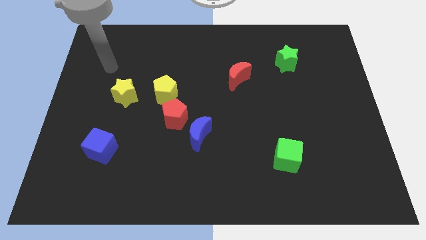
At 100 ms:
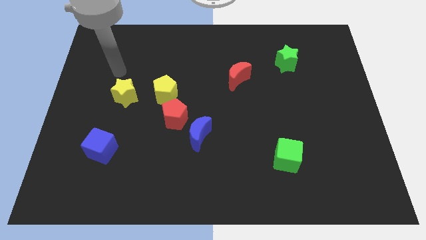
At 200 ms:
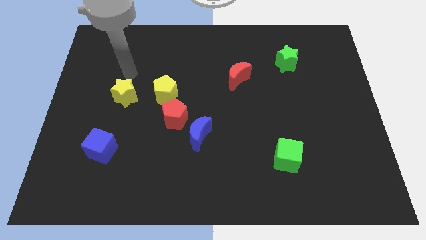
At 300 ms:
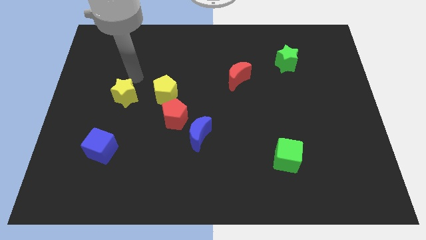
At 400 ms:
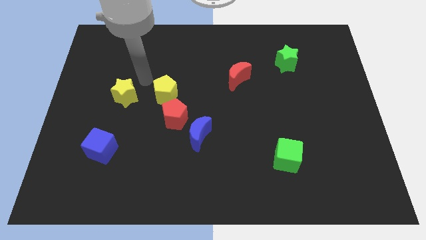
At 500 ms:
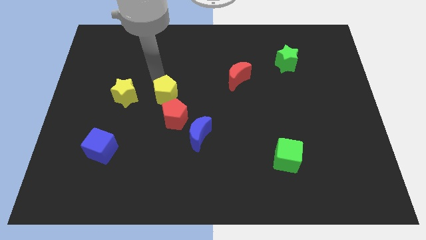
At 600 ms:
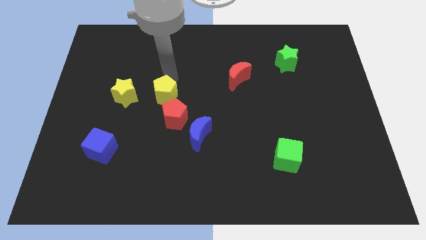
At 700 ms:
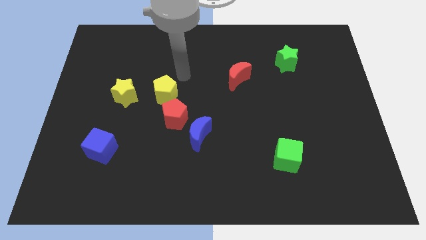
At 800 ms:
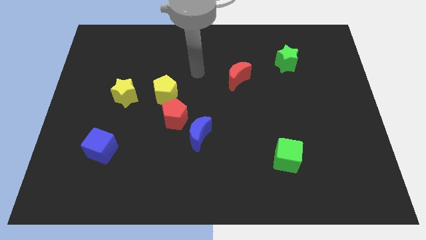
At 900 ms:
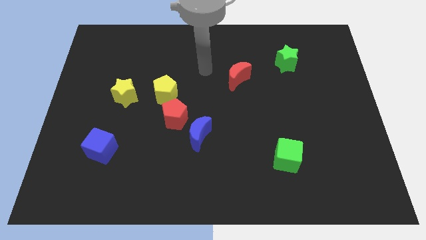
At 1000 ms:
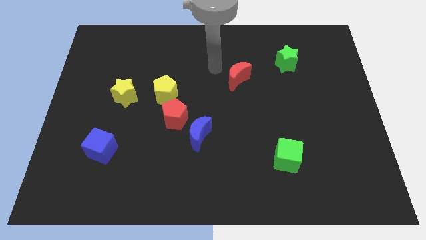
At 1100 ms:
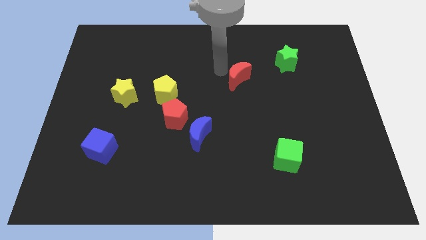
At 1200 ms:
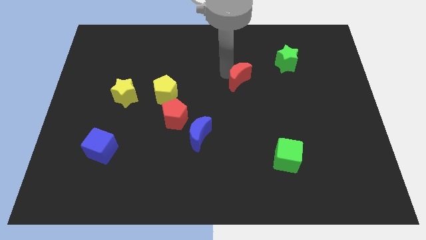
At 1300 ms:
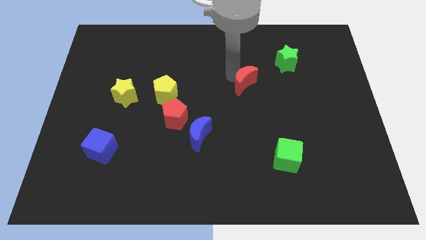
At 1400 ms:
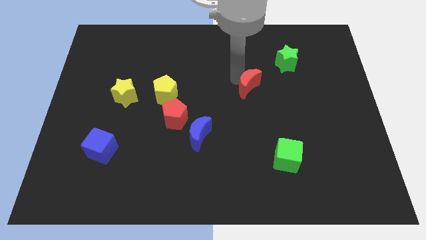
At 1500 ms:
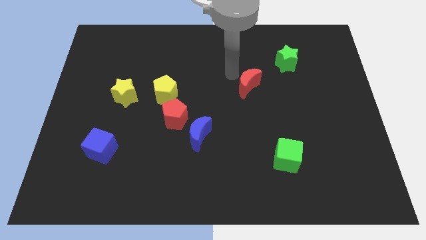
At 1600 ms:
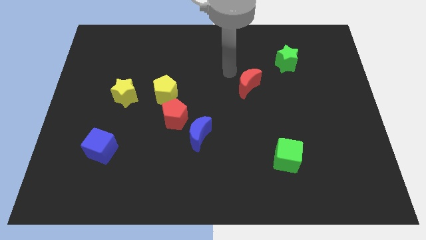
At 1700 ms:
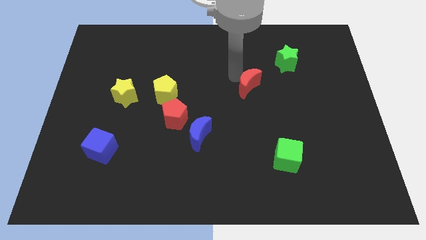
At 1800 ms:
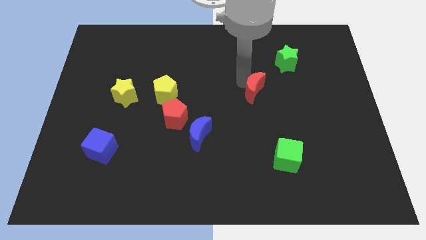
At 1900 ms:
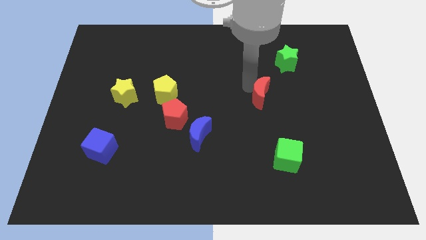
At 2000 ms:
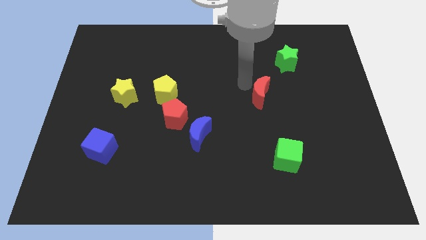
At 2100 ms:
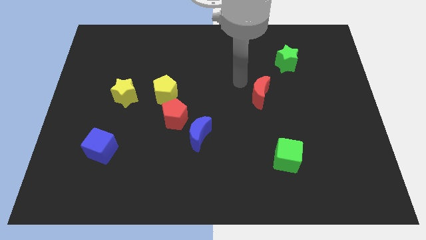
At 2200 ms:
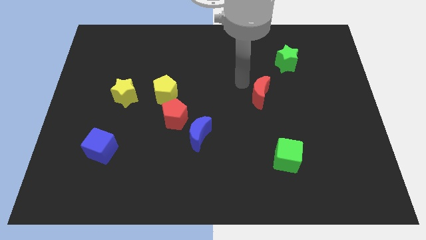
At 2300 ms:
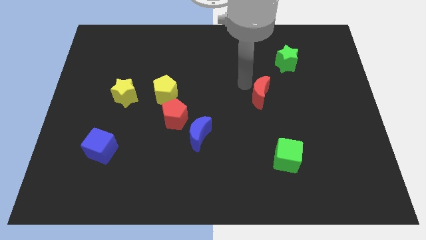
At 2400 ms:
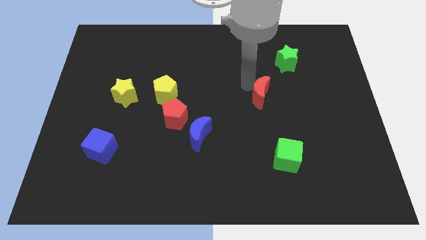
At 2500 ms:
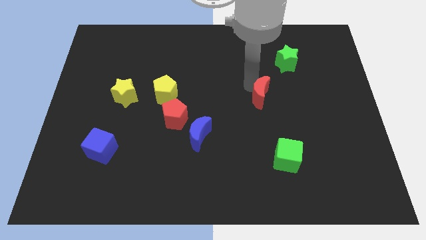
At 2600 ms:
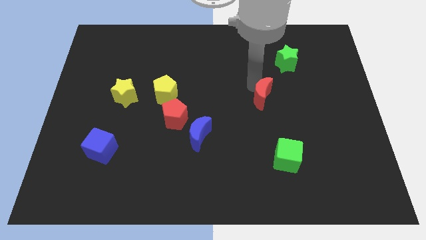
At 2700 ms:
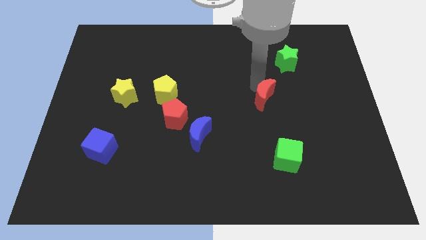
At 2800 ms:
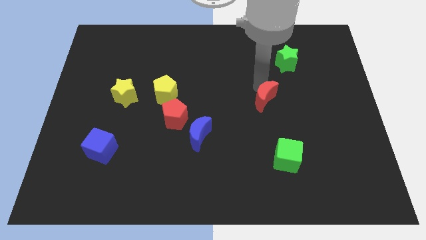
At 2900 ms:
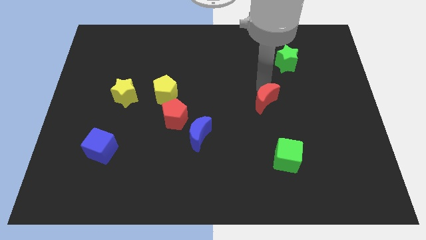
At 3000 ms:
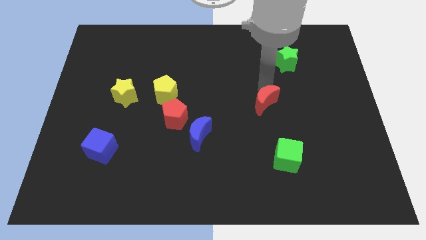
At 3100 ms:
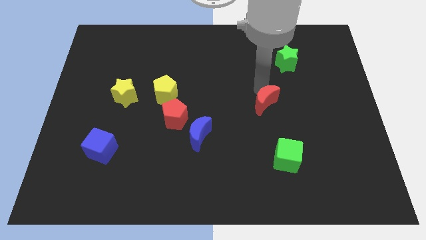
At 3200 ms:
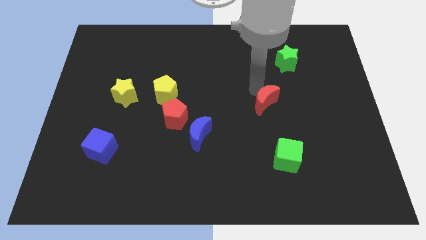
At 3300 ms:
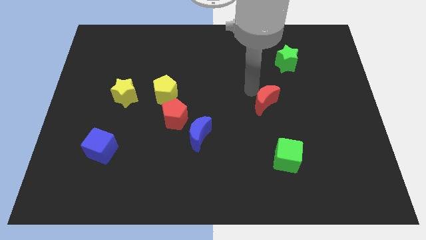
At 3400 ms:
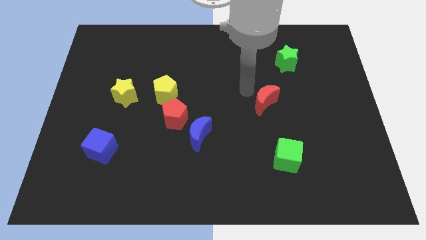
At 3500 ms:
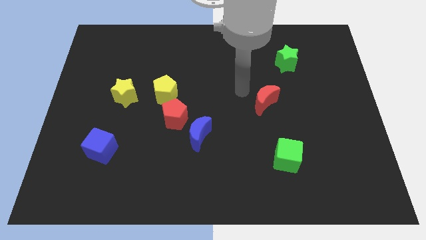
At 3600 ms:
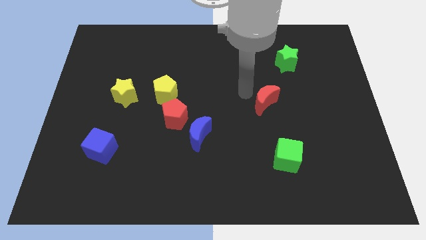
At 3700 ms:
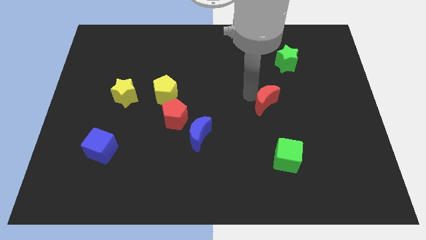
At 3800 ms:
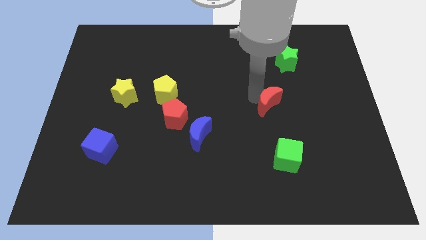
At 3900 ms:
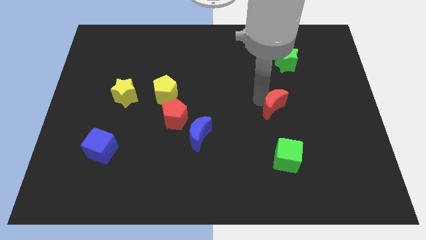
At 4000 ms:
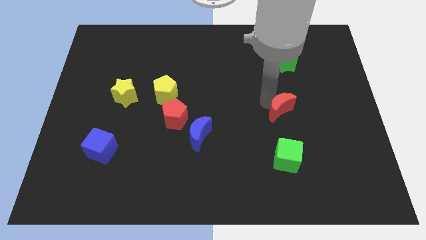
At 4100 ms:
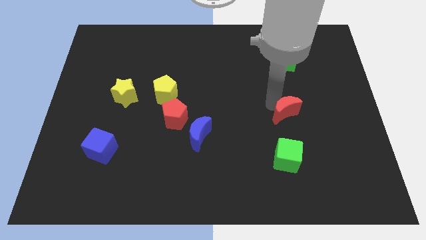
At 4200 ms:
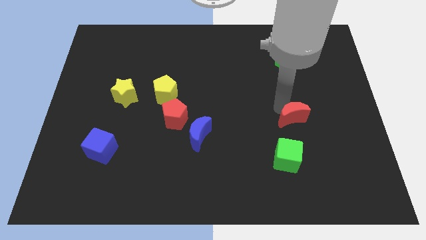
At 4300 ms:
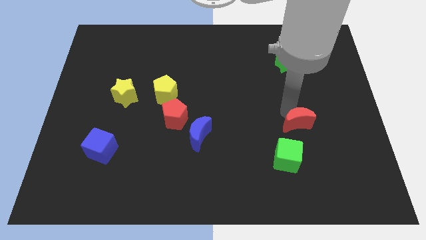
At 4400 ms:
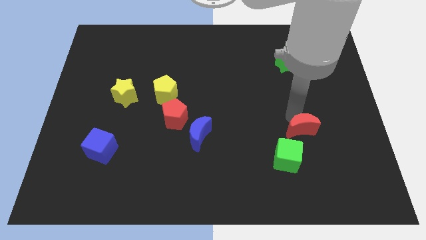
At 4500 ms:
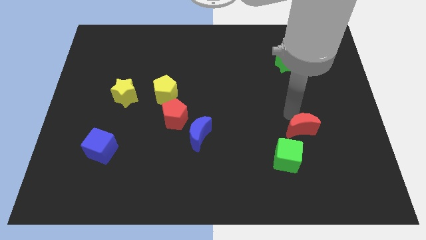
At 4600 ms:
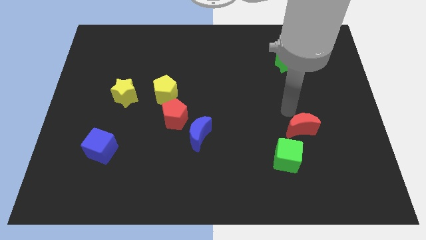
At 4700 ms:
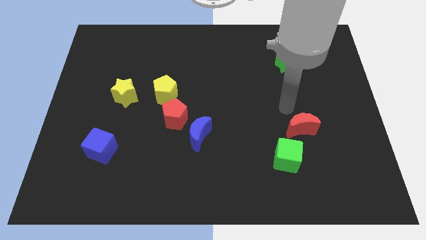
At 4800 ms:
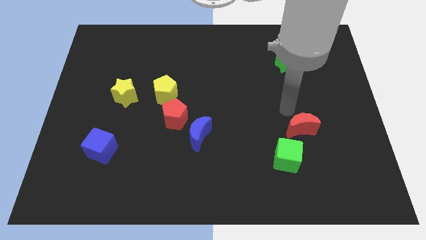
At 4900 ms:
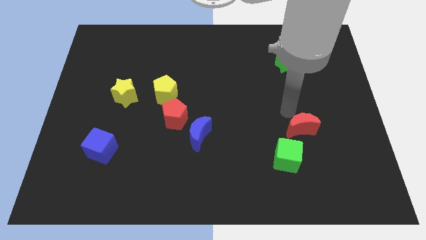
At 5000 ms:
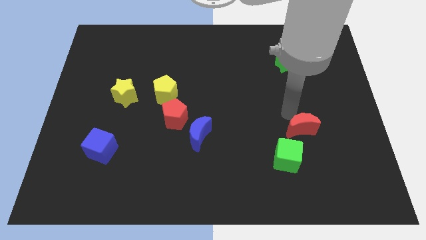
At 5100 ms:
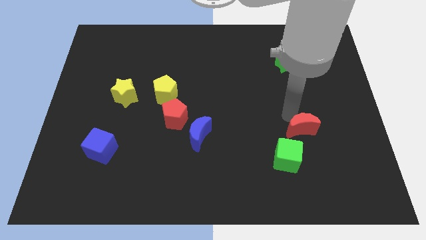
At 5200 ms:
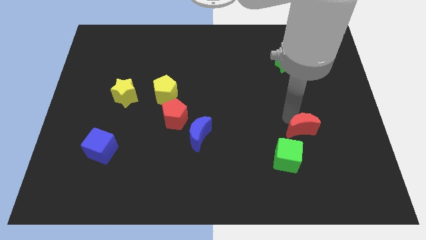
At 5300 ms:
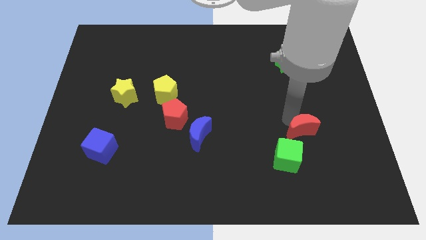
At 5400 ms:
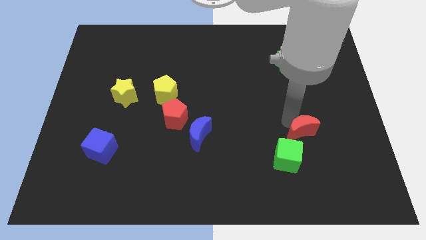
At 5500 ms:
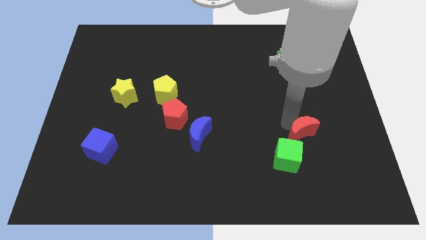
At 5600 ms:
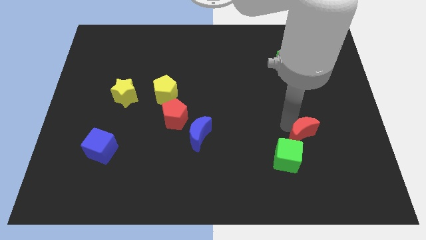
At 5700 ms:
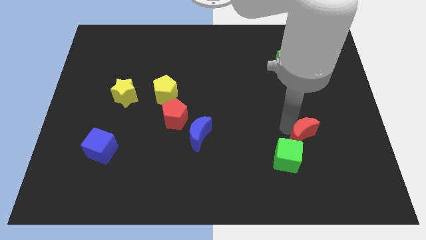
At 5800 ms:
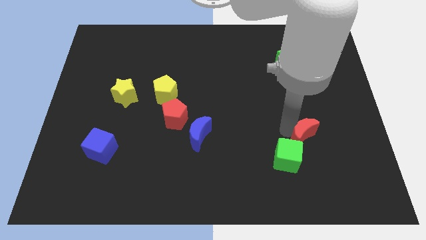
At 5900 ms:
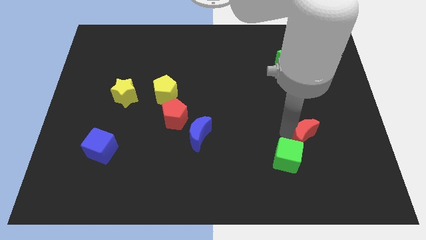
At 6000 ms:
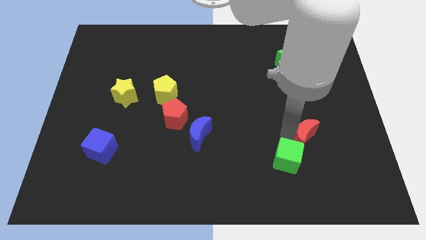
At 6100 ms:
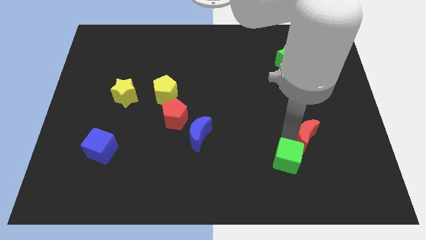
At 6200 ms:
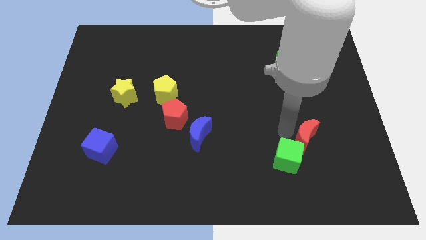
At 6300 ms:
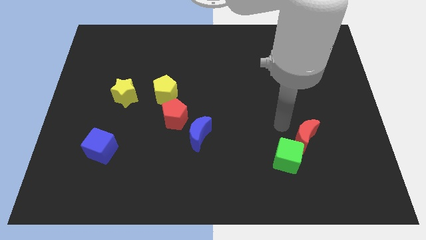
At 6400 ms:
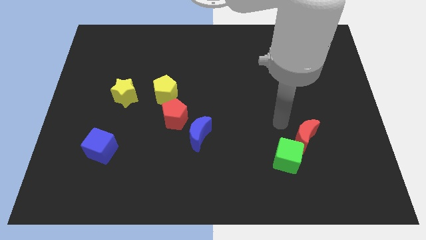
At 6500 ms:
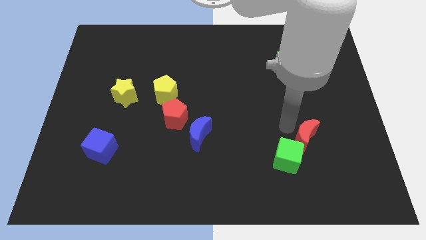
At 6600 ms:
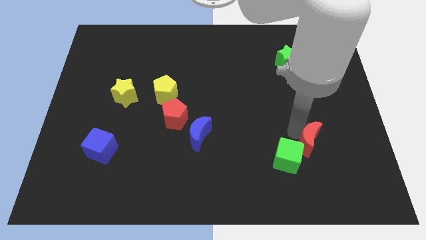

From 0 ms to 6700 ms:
push the red moon right of the green cube

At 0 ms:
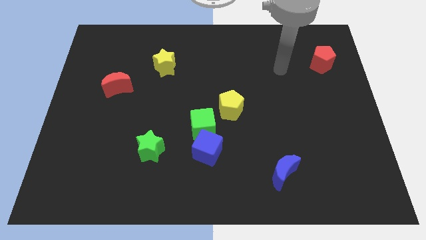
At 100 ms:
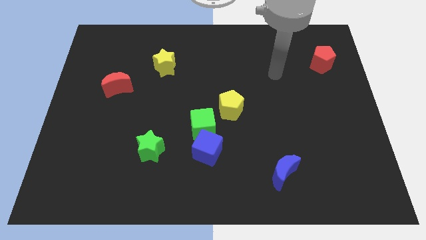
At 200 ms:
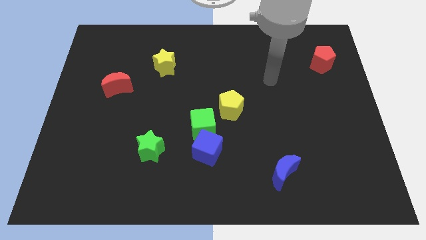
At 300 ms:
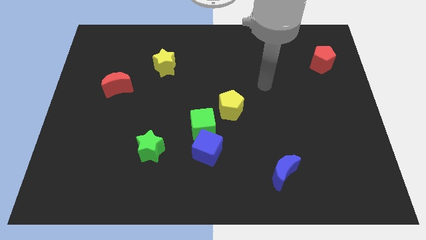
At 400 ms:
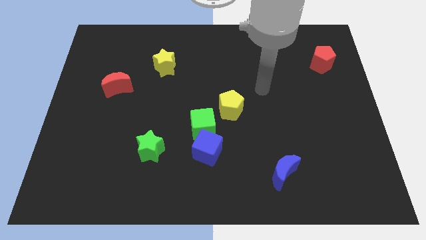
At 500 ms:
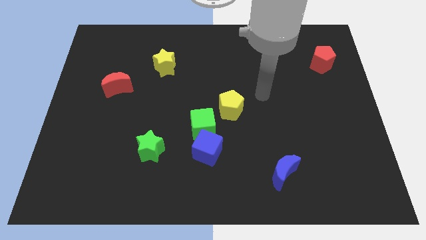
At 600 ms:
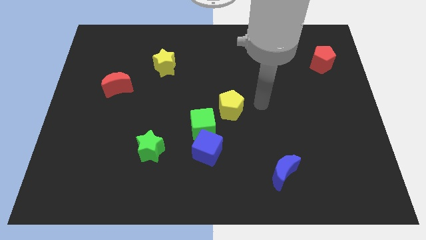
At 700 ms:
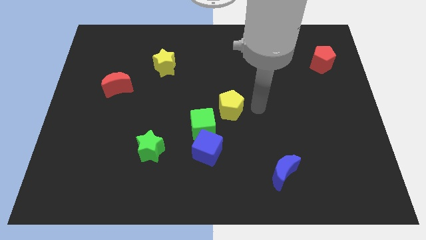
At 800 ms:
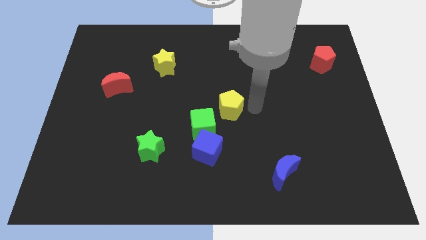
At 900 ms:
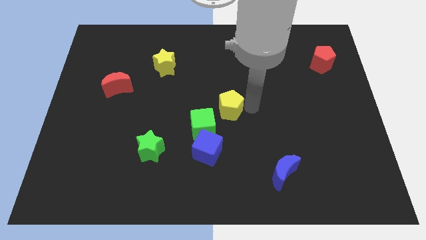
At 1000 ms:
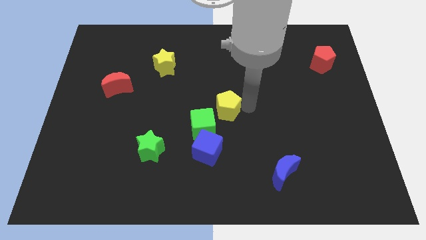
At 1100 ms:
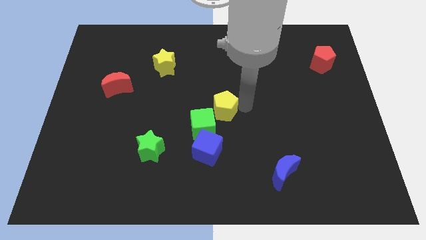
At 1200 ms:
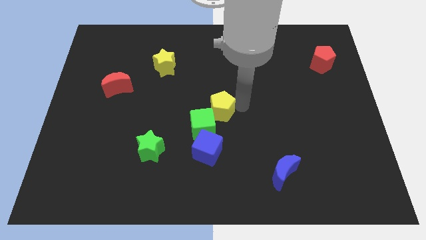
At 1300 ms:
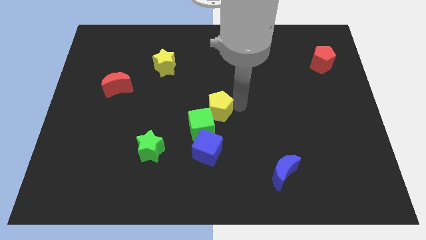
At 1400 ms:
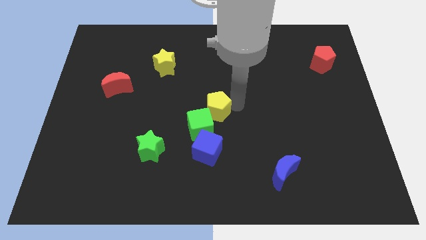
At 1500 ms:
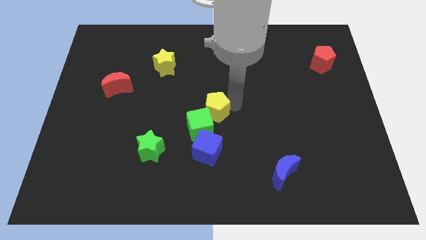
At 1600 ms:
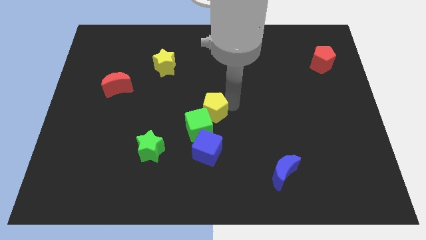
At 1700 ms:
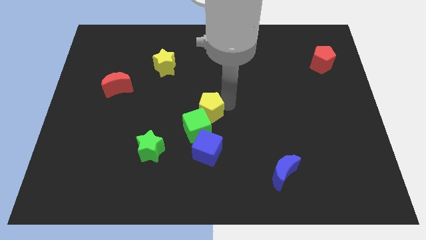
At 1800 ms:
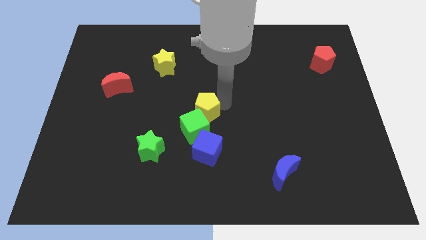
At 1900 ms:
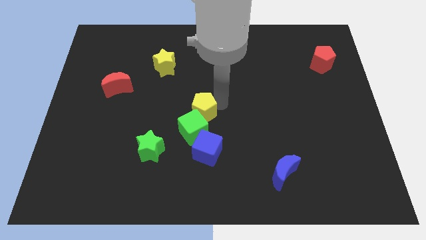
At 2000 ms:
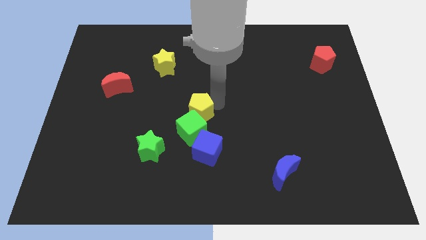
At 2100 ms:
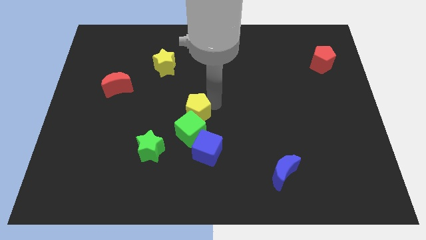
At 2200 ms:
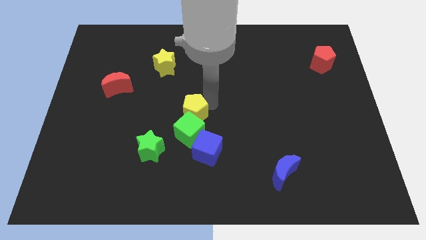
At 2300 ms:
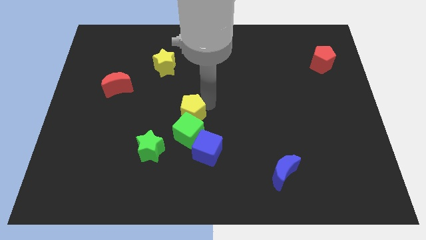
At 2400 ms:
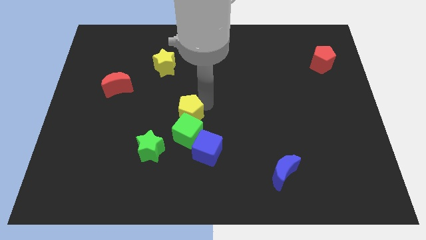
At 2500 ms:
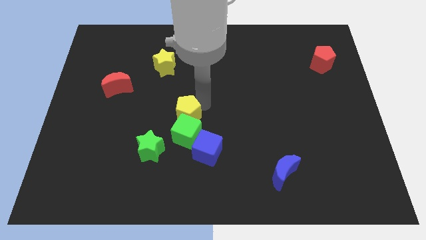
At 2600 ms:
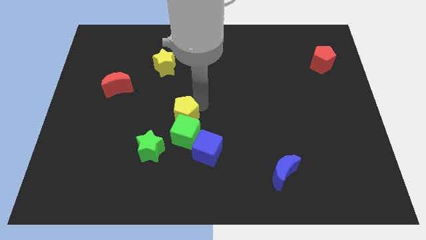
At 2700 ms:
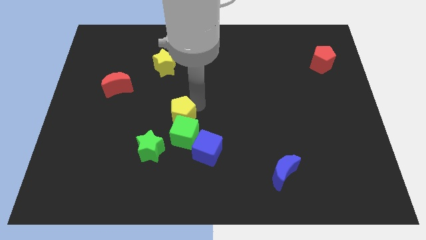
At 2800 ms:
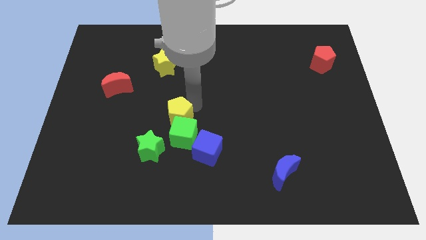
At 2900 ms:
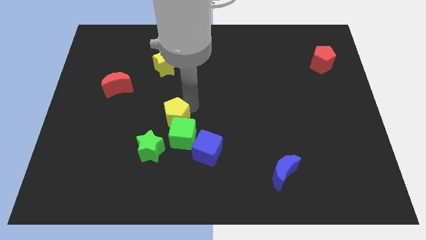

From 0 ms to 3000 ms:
push the yellow pentagon to the top of the green star
